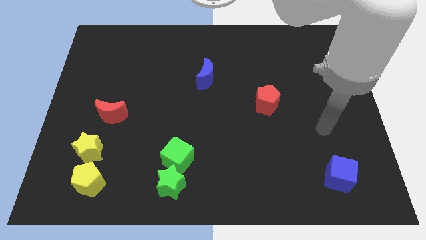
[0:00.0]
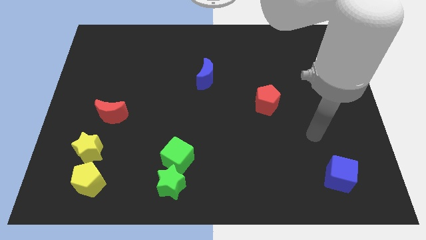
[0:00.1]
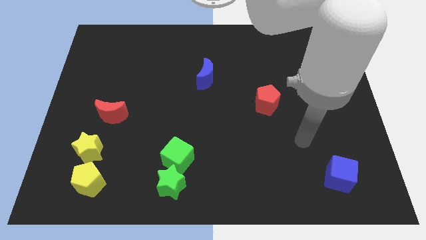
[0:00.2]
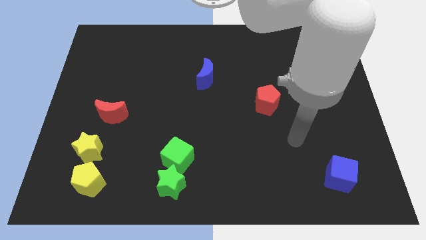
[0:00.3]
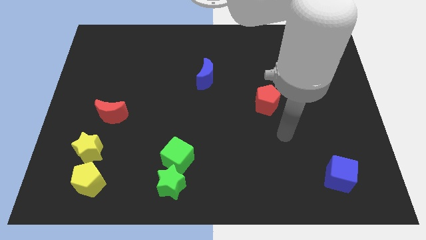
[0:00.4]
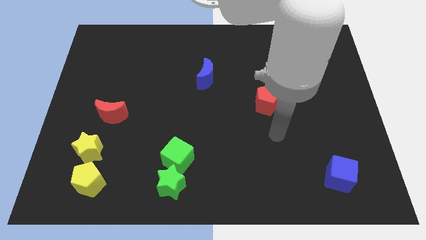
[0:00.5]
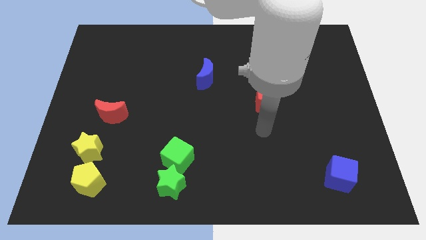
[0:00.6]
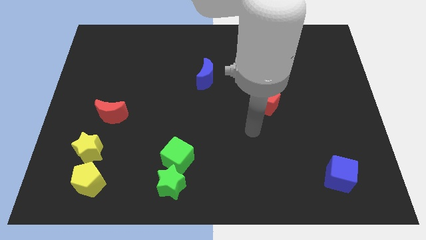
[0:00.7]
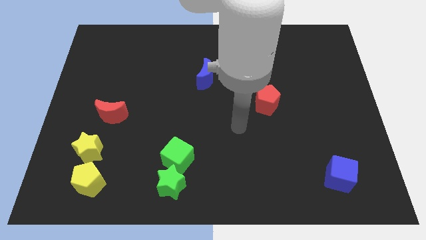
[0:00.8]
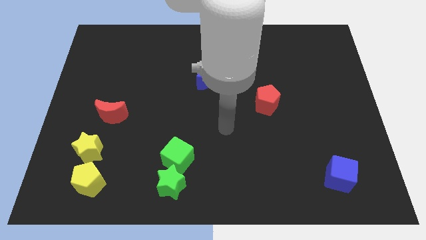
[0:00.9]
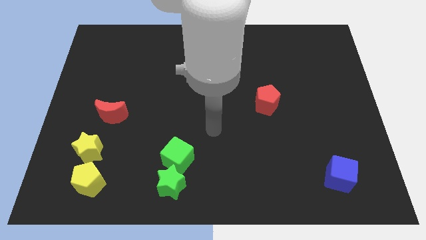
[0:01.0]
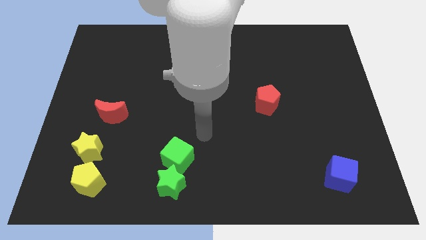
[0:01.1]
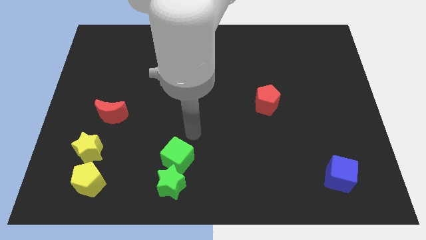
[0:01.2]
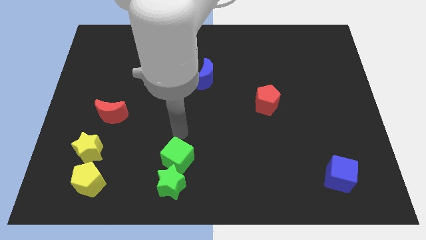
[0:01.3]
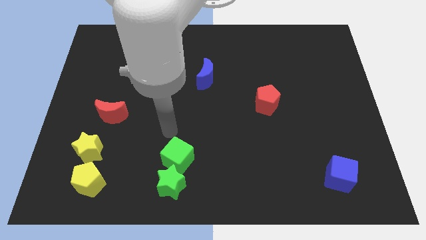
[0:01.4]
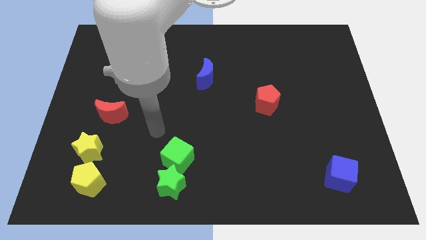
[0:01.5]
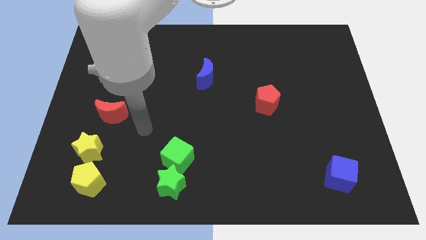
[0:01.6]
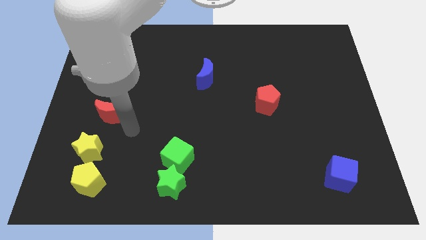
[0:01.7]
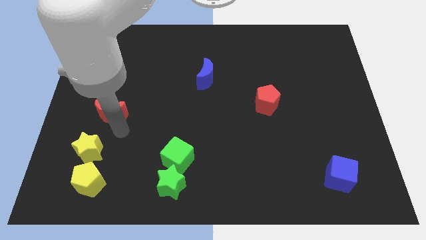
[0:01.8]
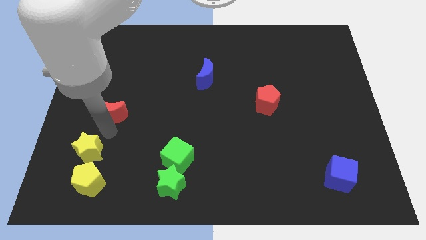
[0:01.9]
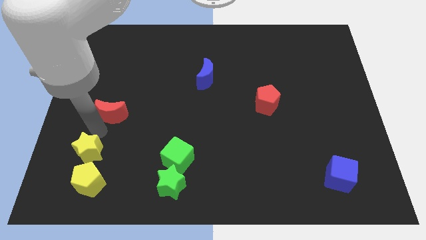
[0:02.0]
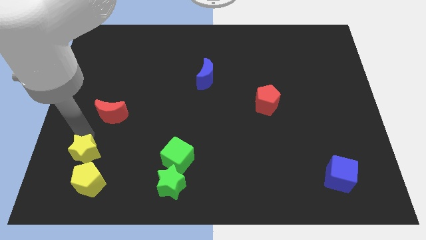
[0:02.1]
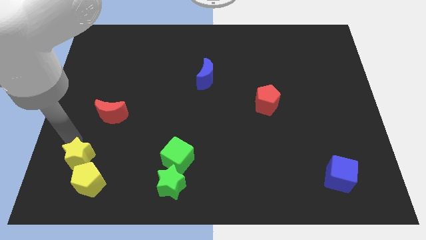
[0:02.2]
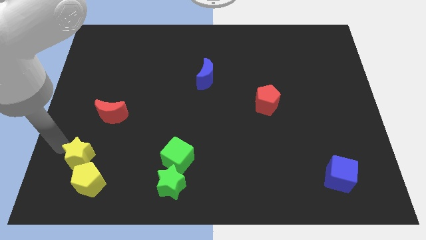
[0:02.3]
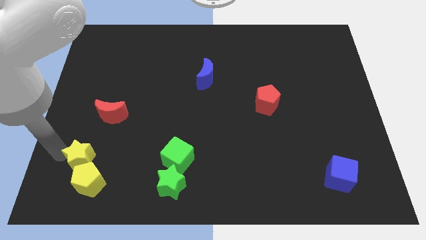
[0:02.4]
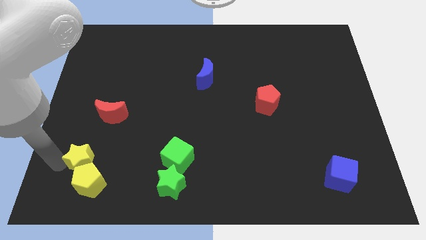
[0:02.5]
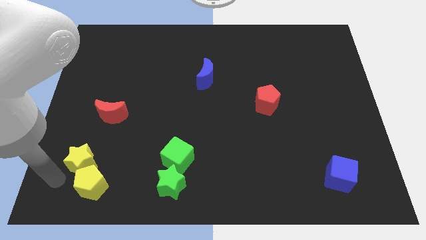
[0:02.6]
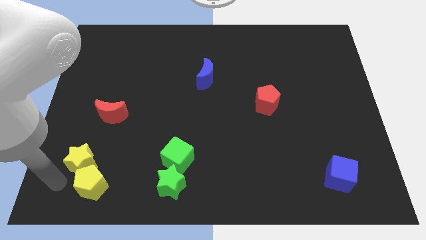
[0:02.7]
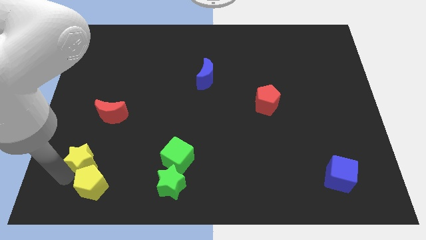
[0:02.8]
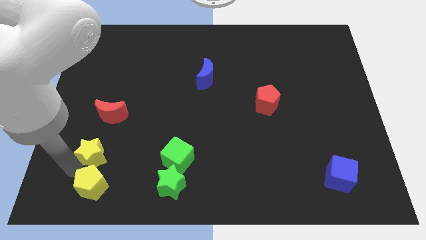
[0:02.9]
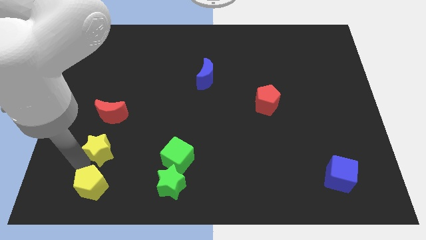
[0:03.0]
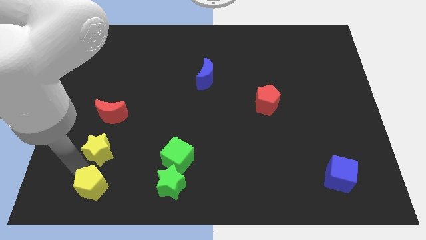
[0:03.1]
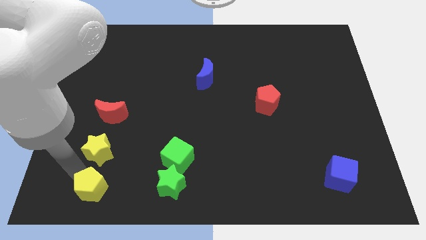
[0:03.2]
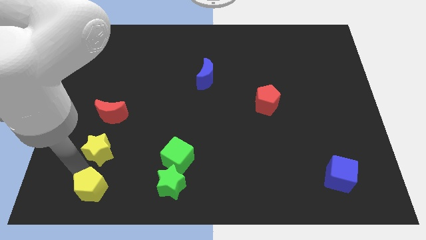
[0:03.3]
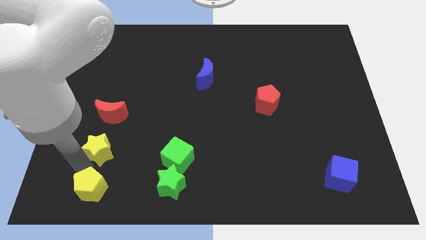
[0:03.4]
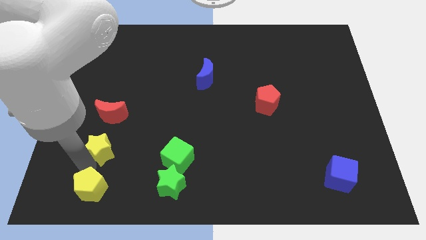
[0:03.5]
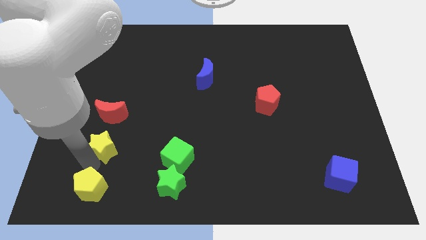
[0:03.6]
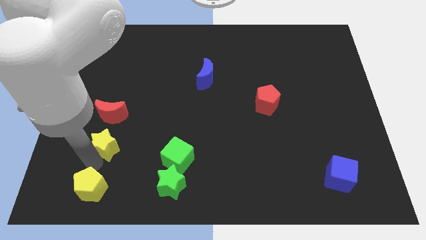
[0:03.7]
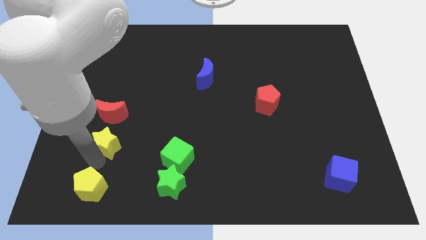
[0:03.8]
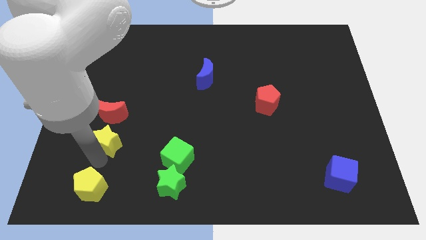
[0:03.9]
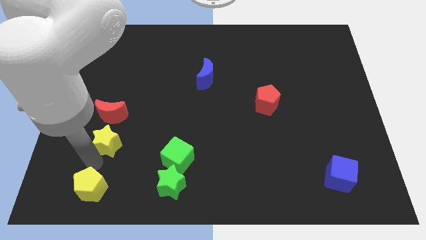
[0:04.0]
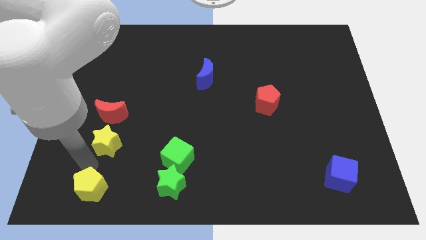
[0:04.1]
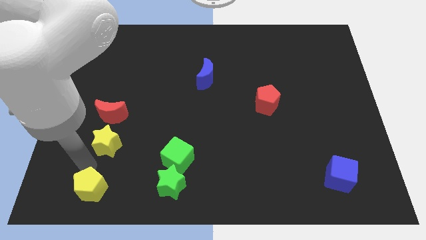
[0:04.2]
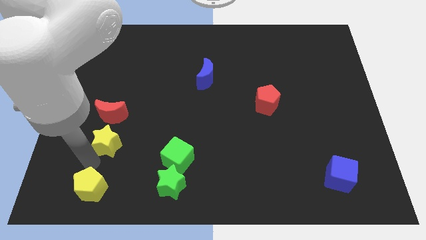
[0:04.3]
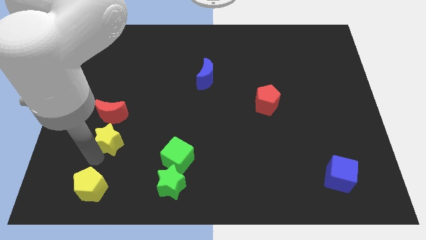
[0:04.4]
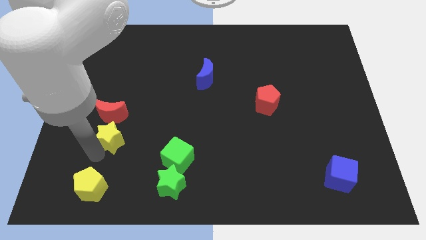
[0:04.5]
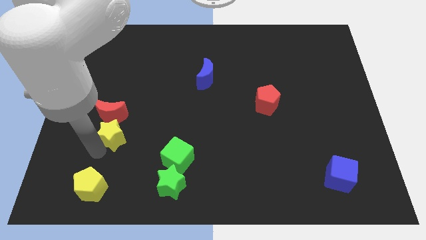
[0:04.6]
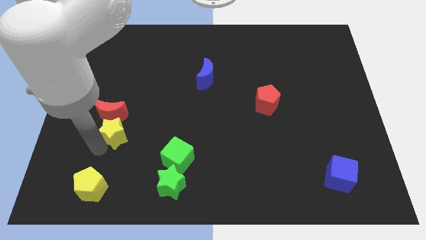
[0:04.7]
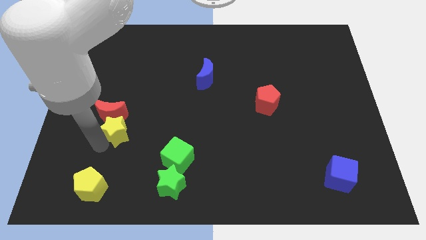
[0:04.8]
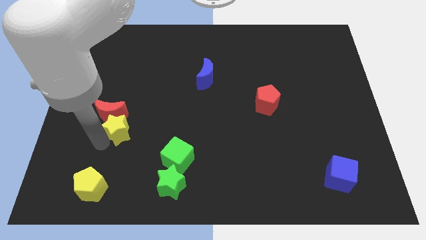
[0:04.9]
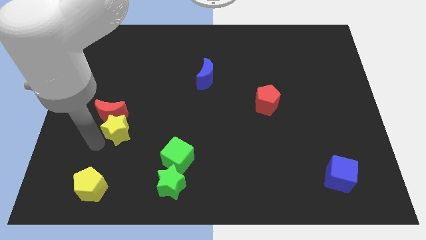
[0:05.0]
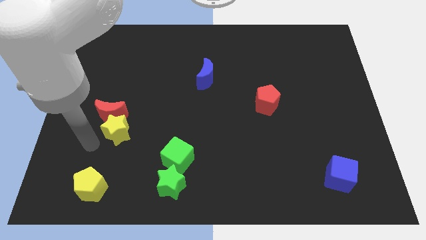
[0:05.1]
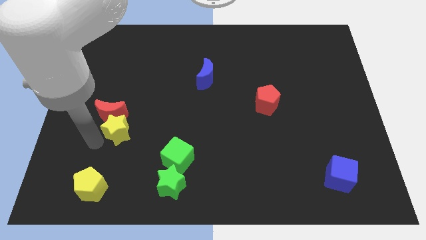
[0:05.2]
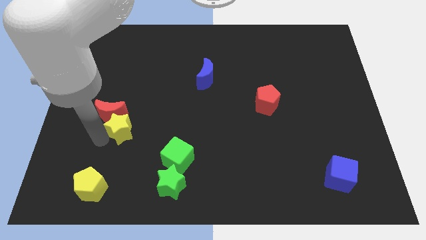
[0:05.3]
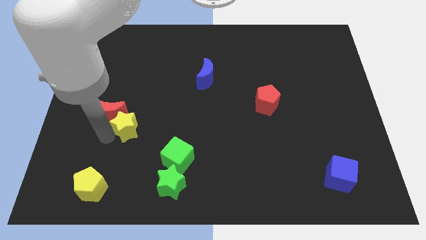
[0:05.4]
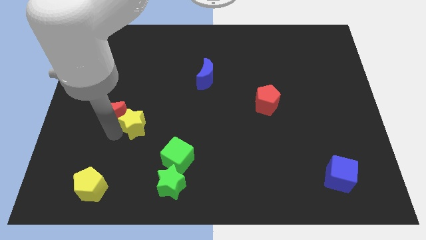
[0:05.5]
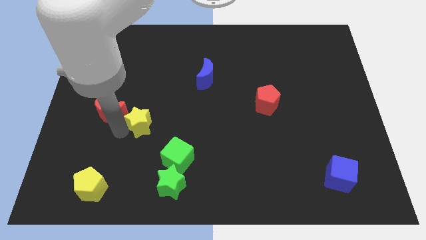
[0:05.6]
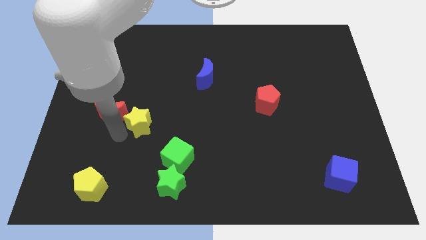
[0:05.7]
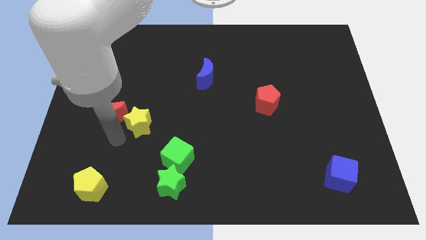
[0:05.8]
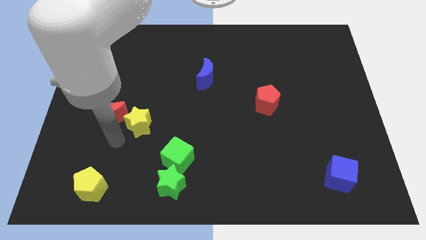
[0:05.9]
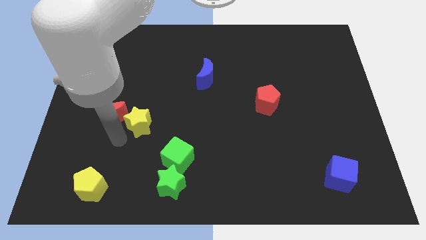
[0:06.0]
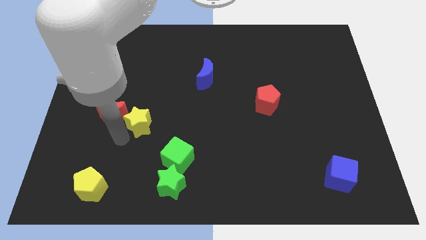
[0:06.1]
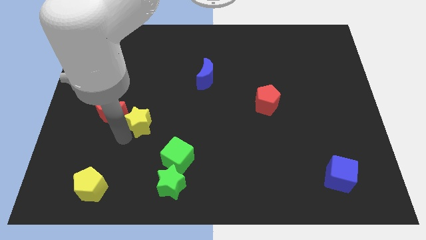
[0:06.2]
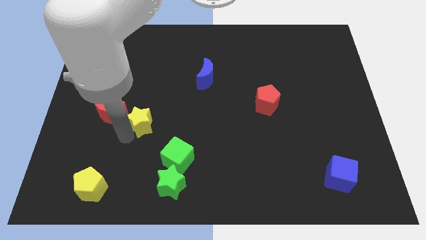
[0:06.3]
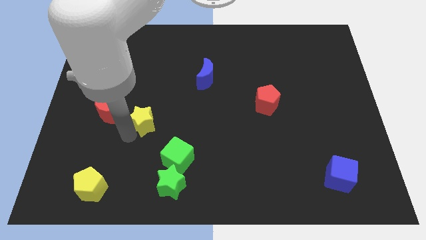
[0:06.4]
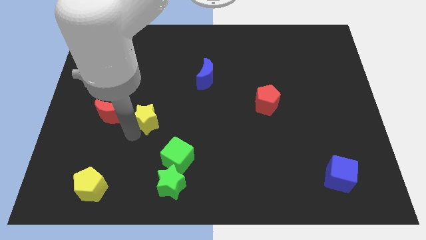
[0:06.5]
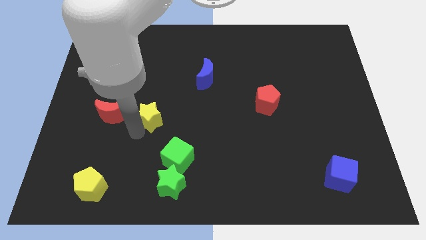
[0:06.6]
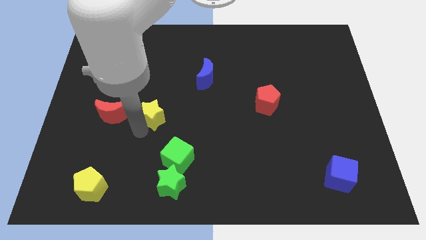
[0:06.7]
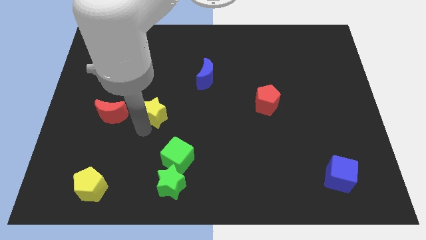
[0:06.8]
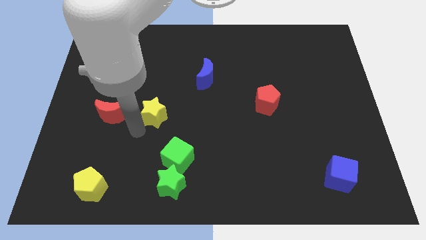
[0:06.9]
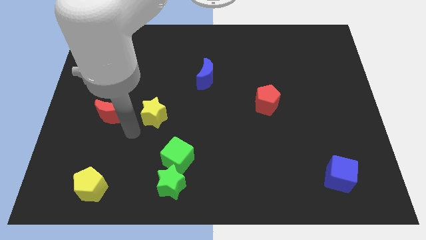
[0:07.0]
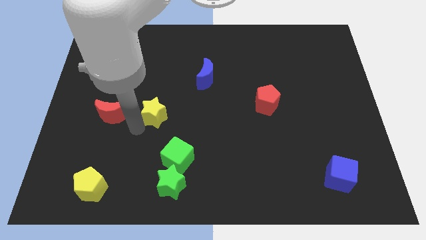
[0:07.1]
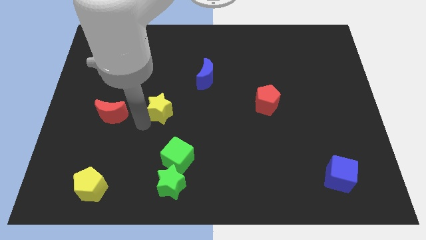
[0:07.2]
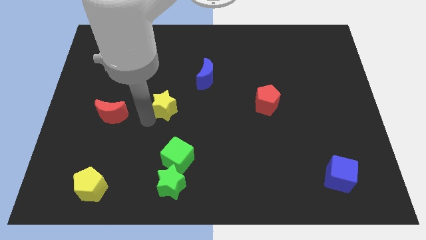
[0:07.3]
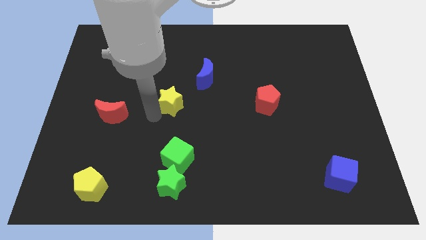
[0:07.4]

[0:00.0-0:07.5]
move the yellow star to the bottom left side of the blue moon

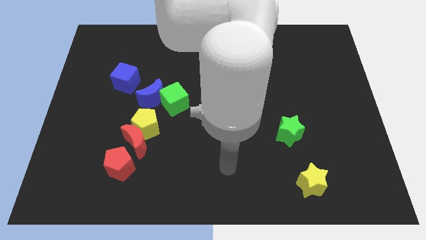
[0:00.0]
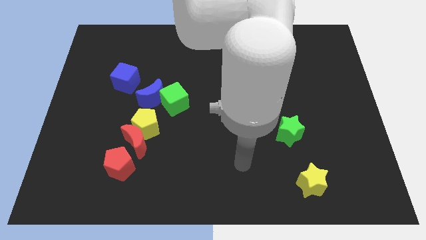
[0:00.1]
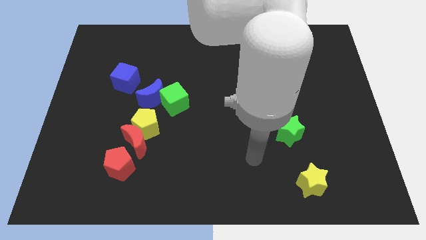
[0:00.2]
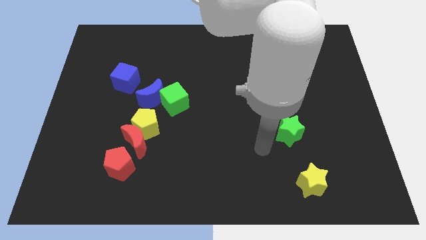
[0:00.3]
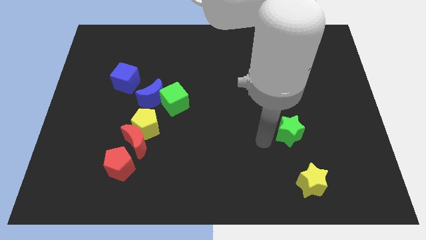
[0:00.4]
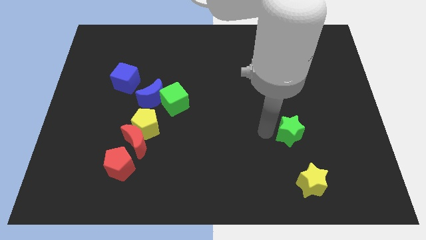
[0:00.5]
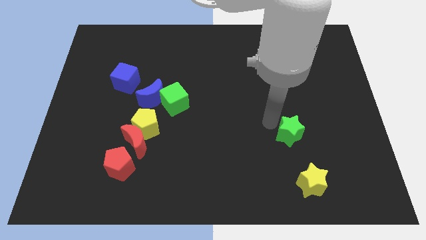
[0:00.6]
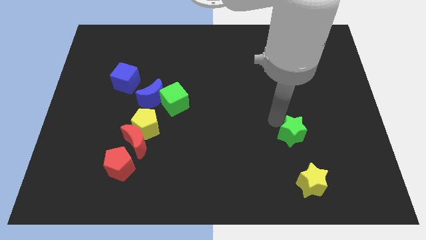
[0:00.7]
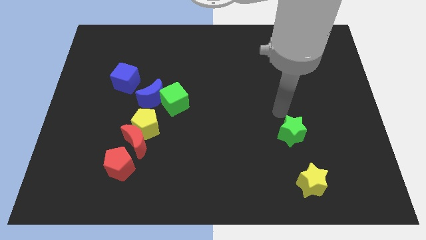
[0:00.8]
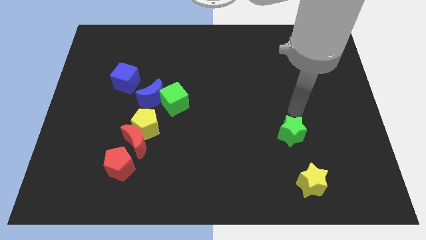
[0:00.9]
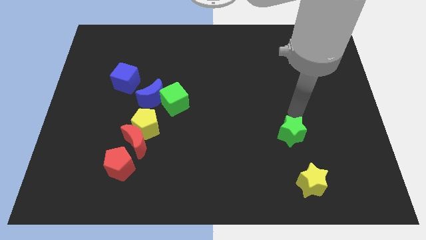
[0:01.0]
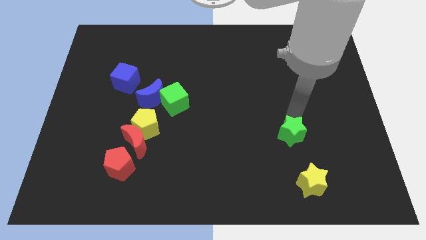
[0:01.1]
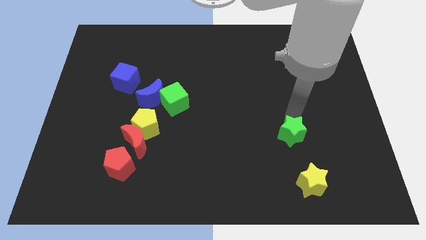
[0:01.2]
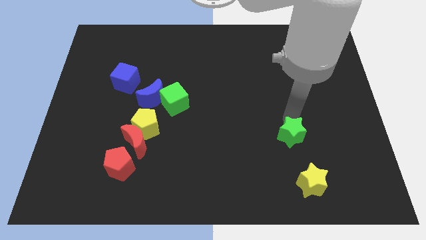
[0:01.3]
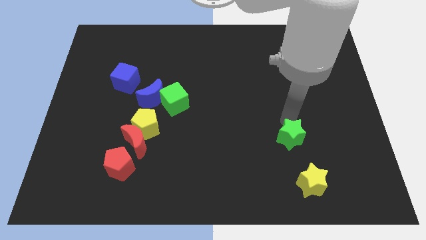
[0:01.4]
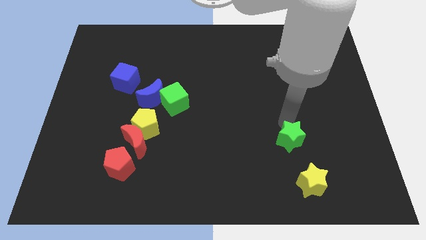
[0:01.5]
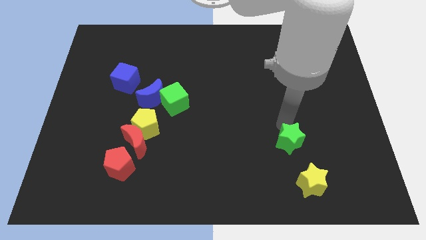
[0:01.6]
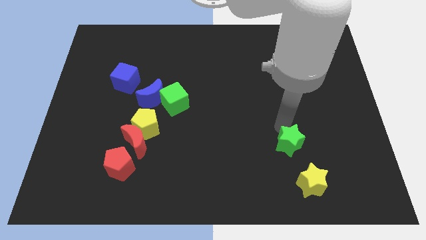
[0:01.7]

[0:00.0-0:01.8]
push the green star to the top left of the yellow star
